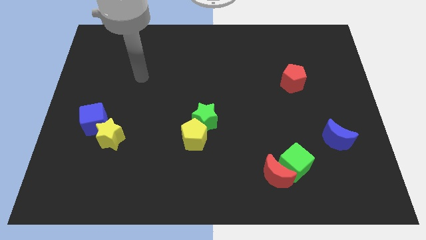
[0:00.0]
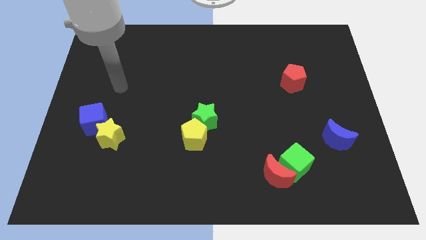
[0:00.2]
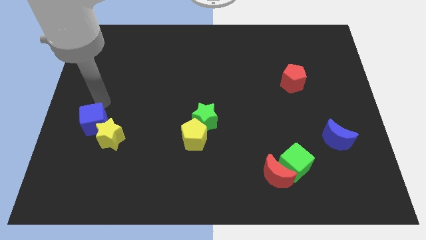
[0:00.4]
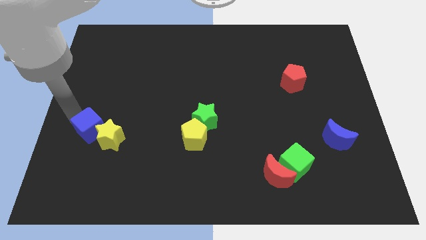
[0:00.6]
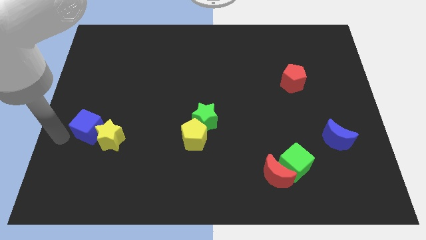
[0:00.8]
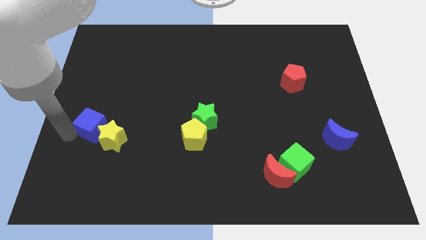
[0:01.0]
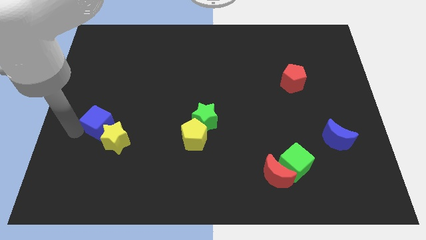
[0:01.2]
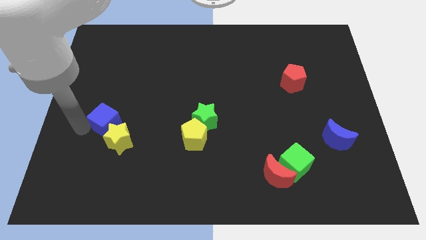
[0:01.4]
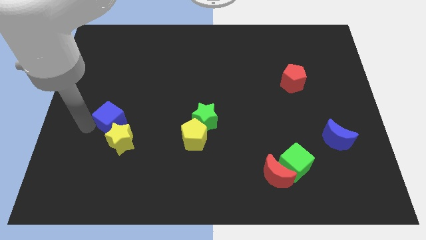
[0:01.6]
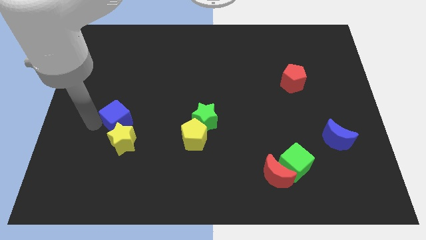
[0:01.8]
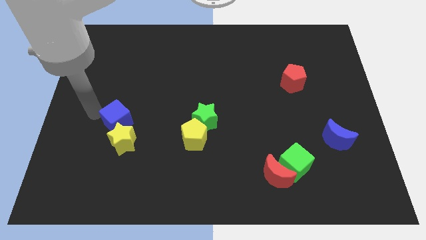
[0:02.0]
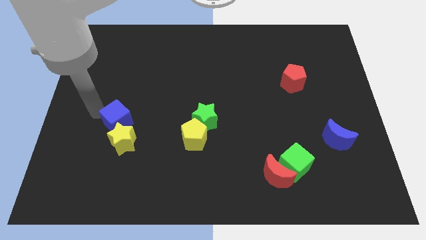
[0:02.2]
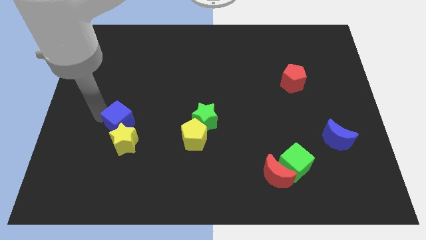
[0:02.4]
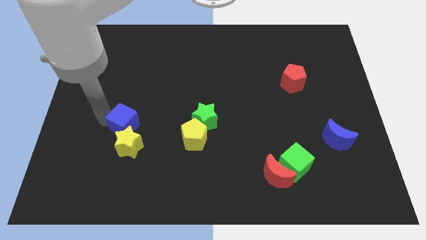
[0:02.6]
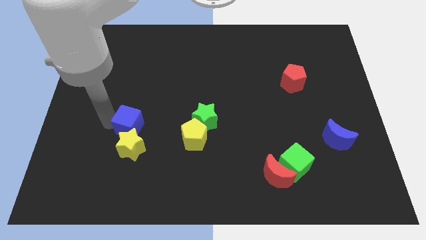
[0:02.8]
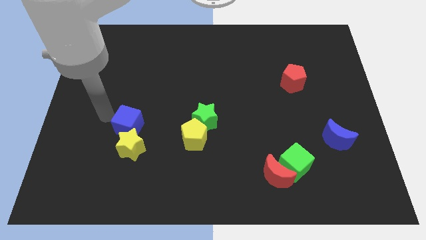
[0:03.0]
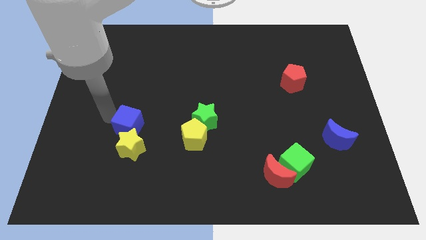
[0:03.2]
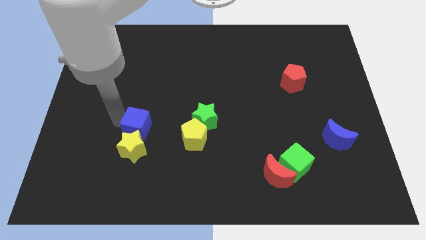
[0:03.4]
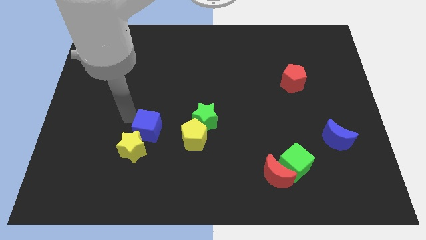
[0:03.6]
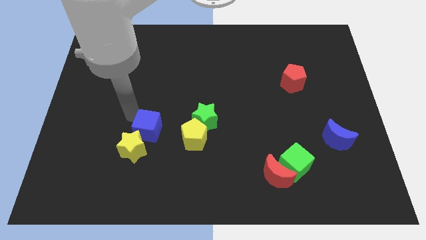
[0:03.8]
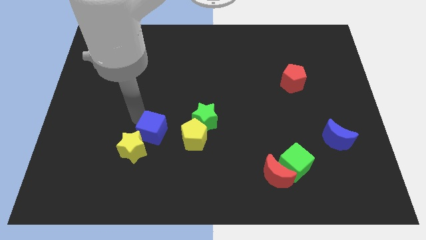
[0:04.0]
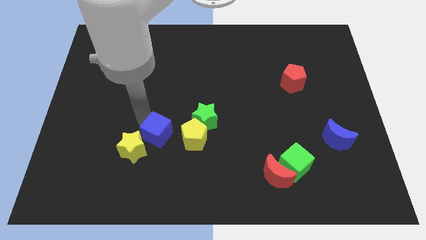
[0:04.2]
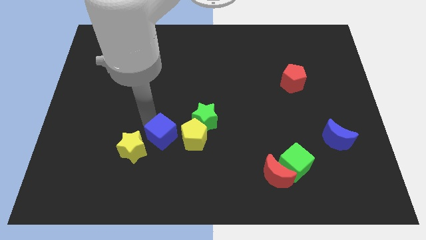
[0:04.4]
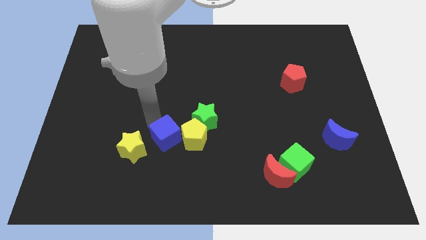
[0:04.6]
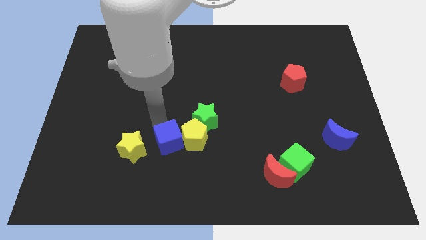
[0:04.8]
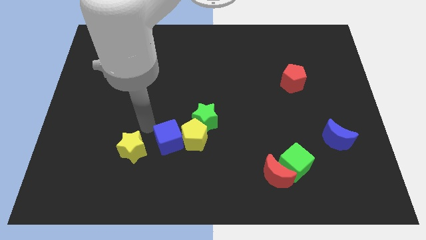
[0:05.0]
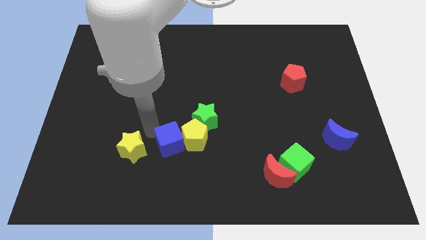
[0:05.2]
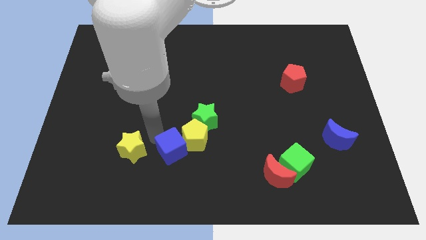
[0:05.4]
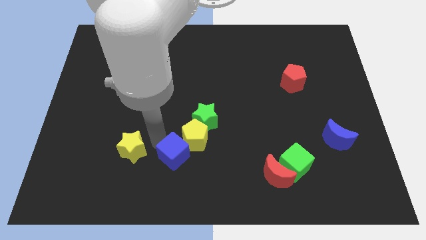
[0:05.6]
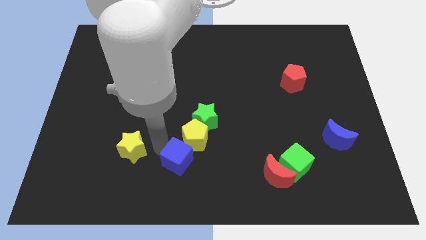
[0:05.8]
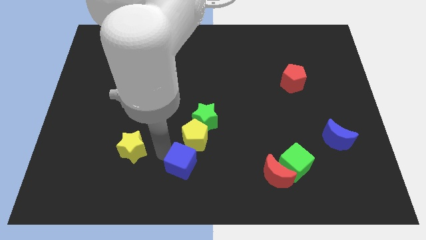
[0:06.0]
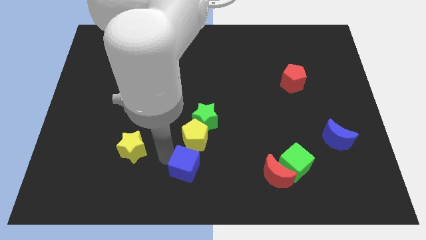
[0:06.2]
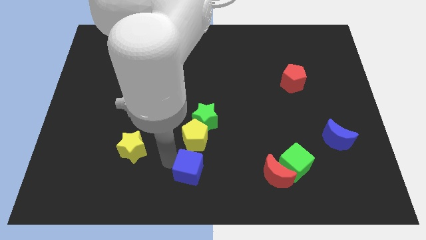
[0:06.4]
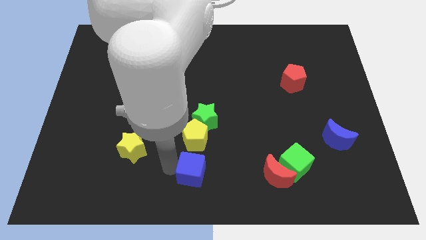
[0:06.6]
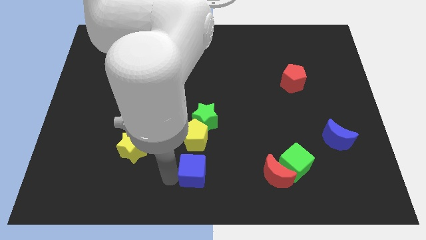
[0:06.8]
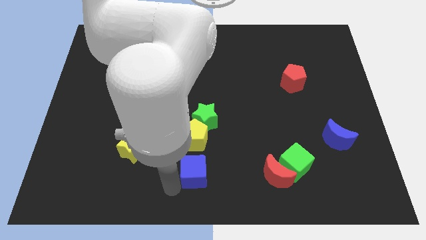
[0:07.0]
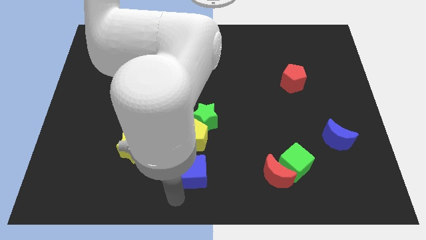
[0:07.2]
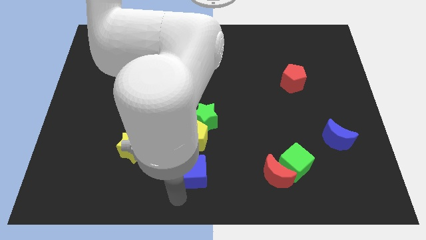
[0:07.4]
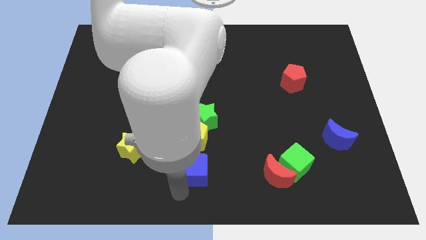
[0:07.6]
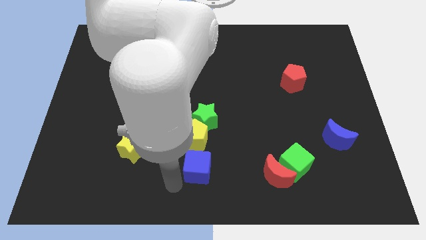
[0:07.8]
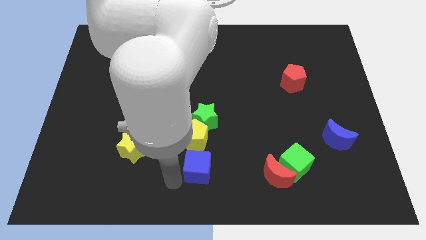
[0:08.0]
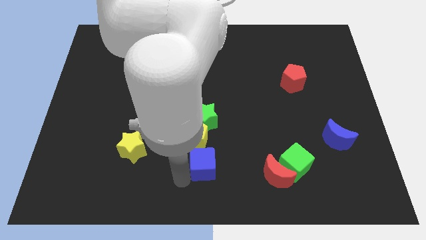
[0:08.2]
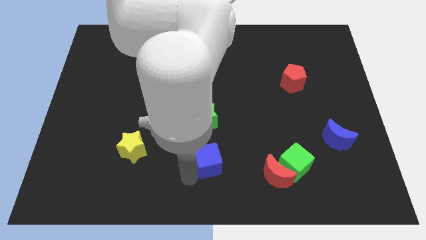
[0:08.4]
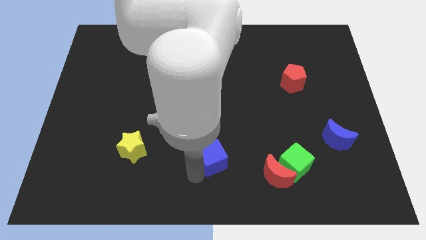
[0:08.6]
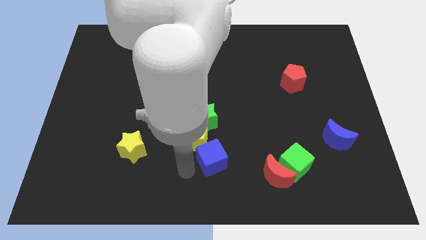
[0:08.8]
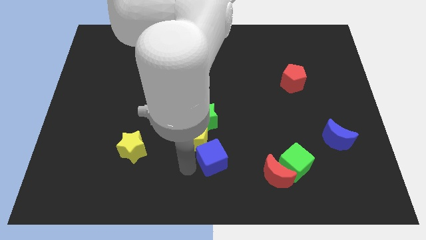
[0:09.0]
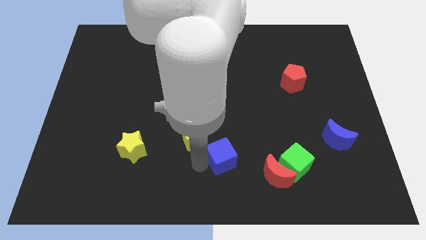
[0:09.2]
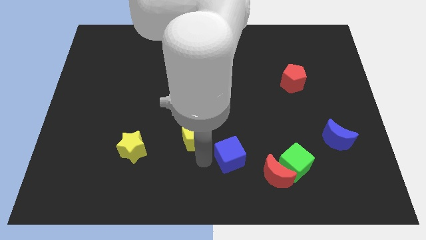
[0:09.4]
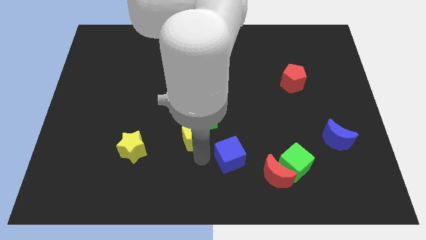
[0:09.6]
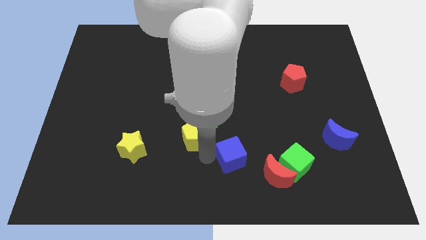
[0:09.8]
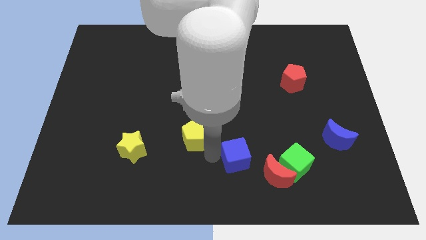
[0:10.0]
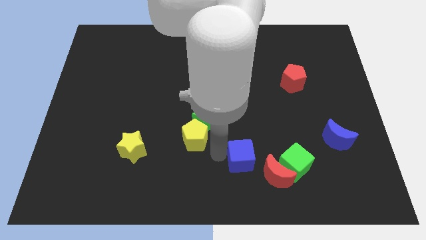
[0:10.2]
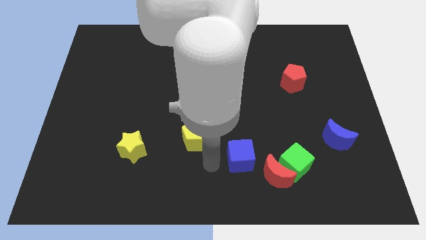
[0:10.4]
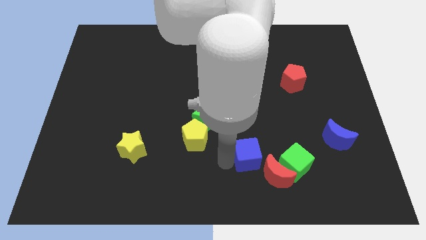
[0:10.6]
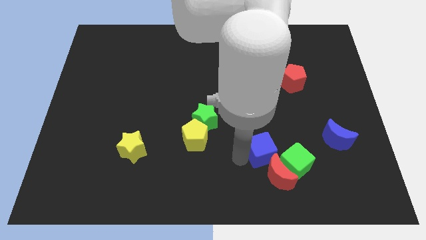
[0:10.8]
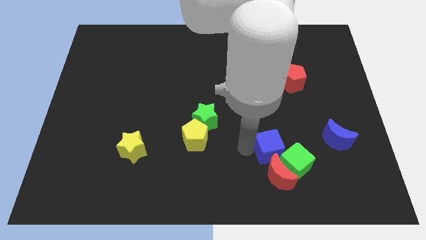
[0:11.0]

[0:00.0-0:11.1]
move the blue cube towards the green cube

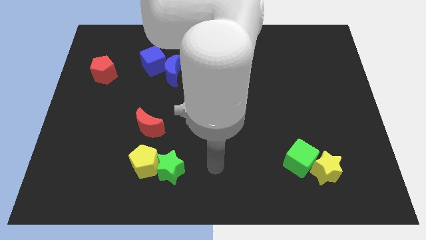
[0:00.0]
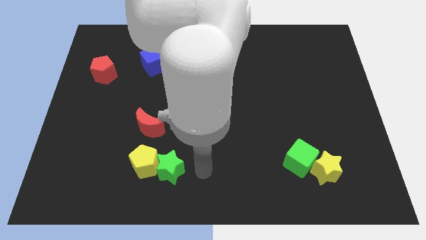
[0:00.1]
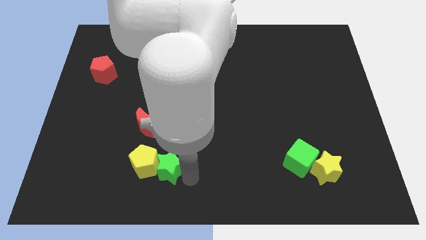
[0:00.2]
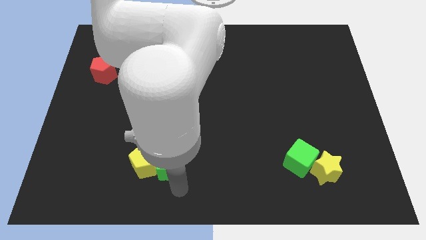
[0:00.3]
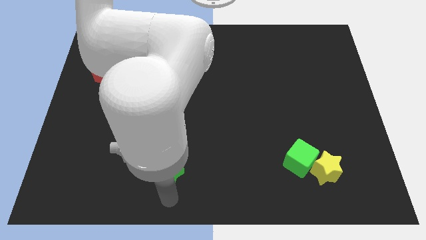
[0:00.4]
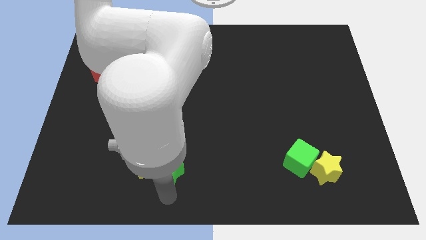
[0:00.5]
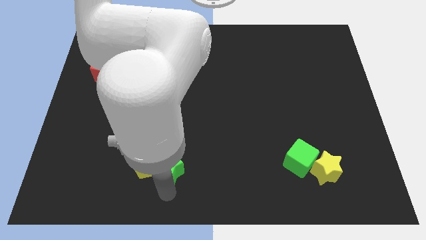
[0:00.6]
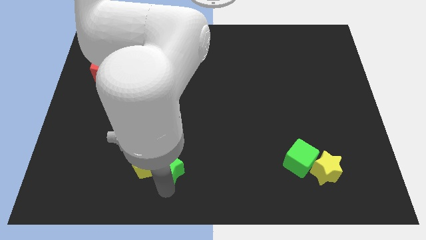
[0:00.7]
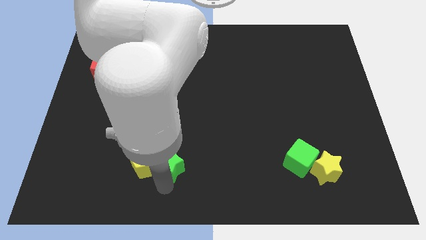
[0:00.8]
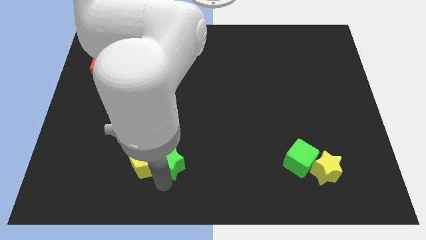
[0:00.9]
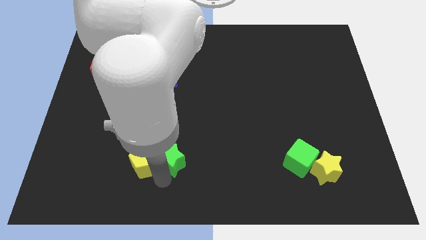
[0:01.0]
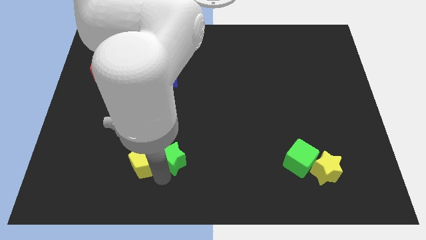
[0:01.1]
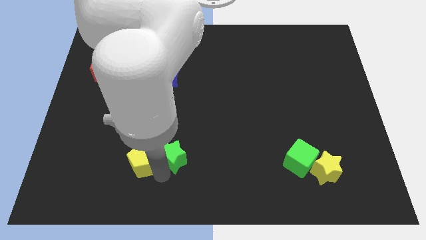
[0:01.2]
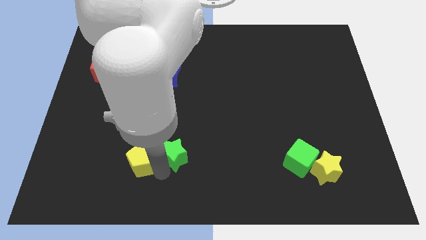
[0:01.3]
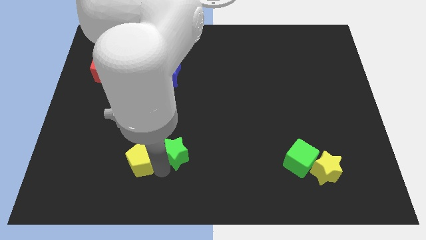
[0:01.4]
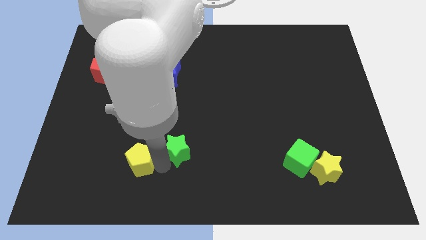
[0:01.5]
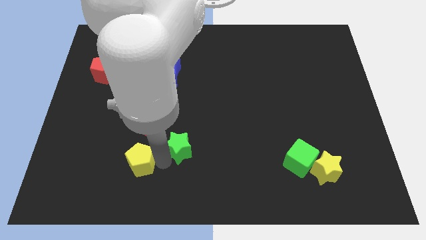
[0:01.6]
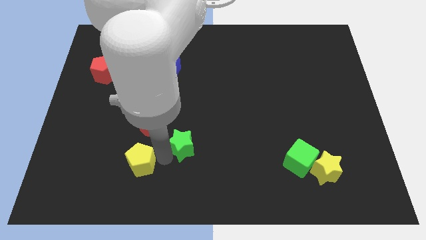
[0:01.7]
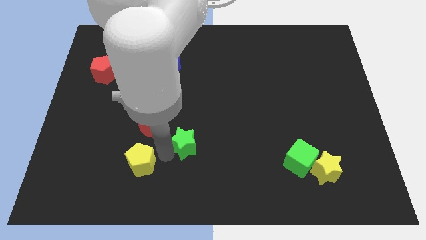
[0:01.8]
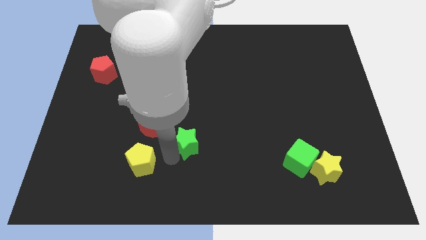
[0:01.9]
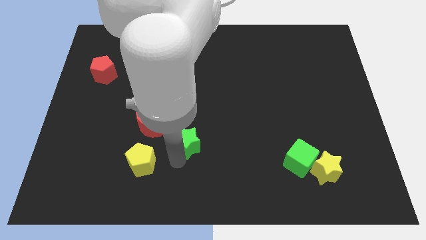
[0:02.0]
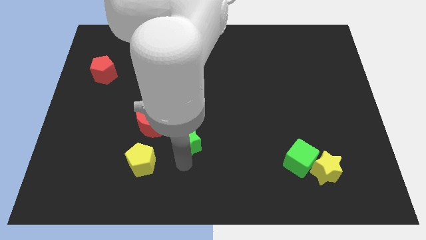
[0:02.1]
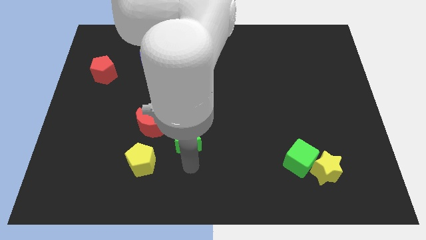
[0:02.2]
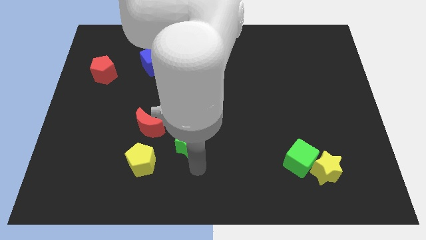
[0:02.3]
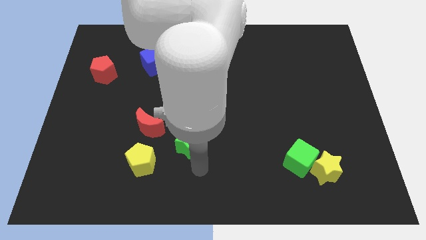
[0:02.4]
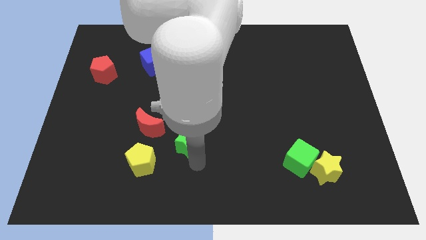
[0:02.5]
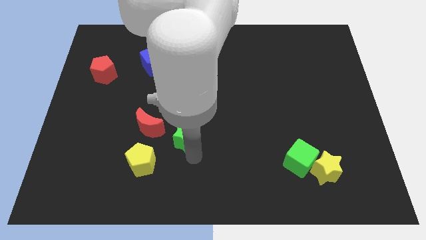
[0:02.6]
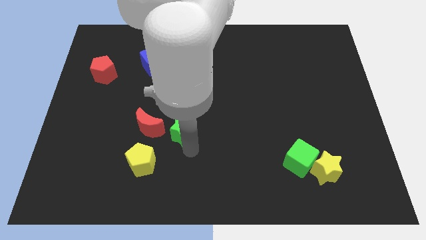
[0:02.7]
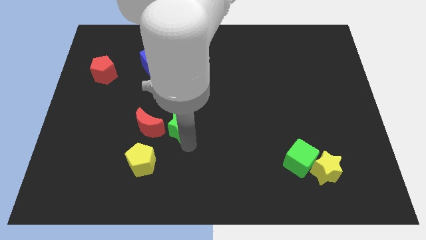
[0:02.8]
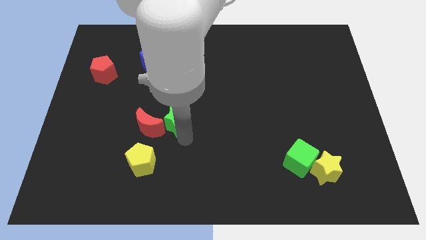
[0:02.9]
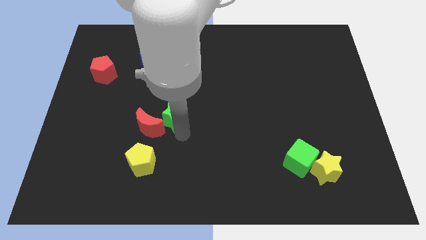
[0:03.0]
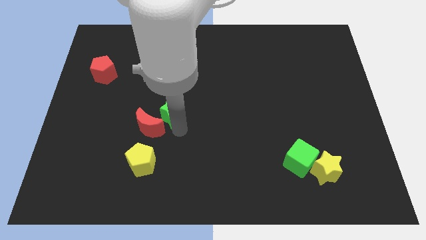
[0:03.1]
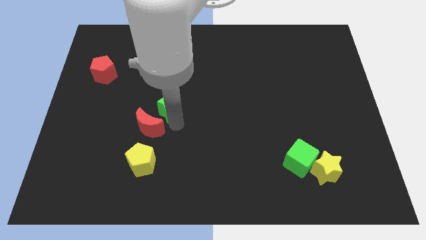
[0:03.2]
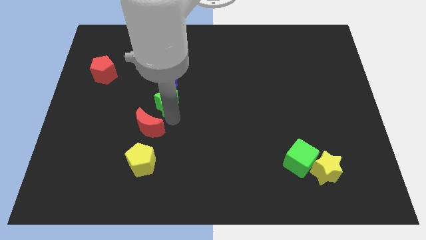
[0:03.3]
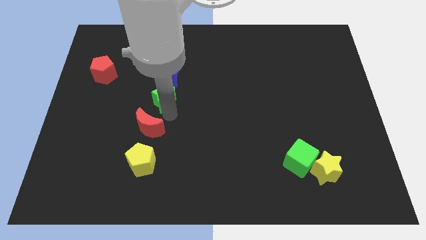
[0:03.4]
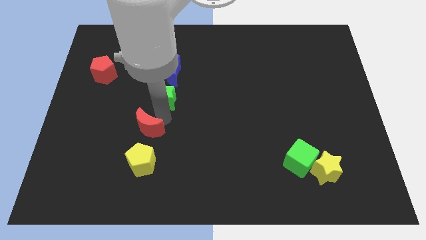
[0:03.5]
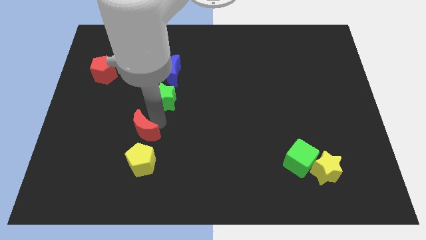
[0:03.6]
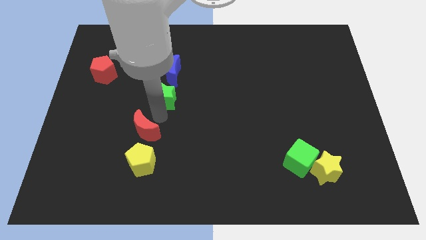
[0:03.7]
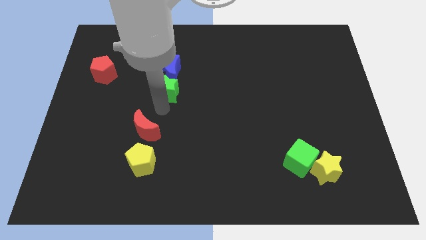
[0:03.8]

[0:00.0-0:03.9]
slide the green star to the blue moon
